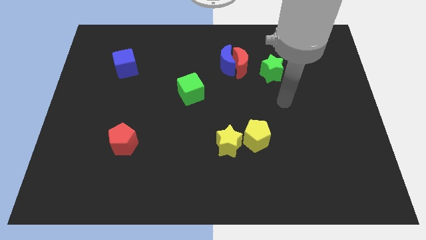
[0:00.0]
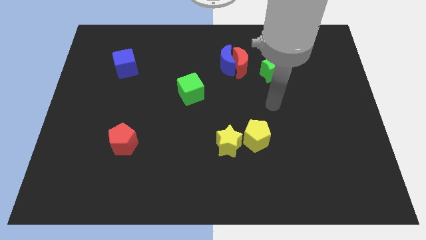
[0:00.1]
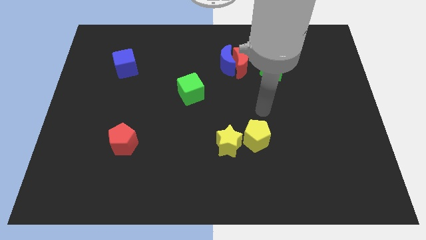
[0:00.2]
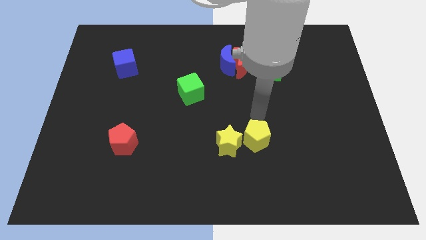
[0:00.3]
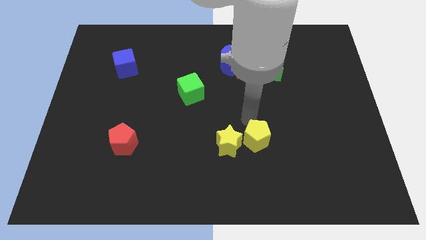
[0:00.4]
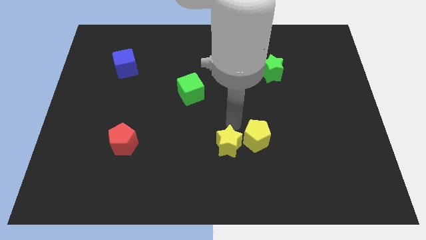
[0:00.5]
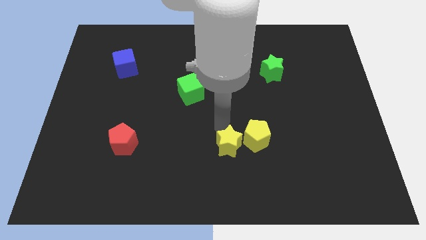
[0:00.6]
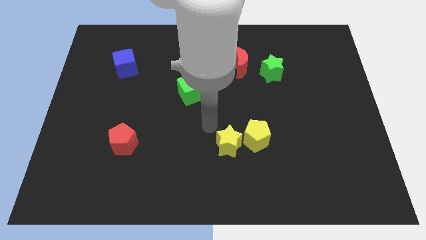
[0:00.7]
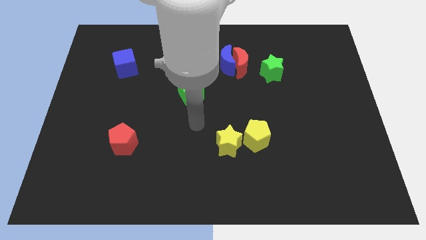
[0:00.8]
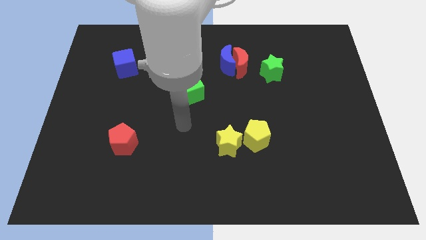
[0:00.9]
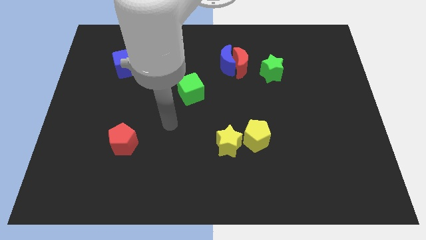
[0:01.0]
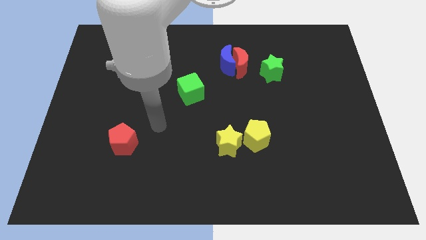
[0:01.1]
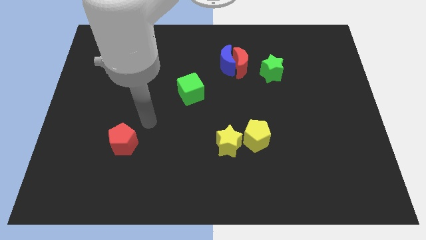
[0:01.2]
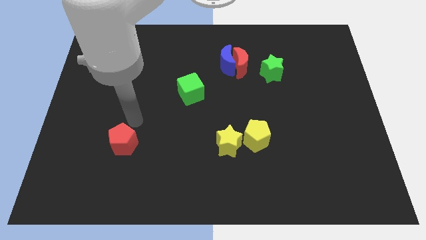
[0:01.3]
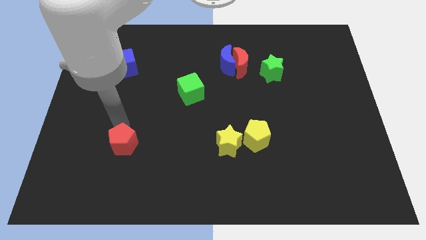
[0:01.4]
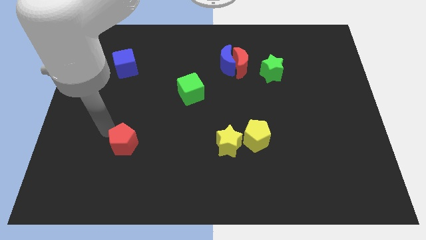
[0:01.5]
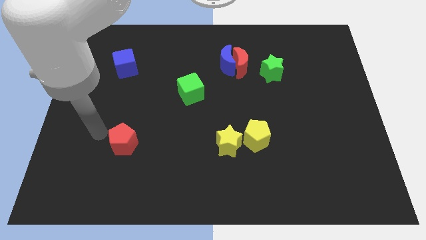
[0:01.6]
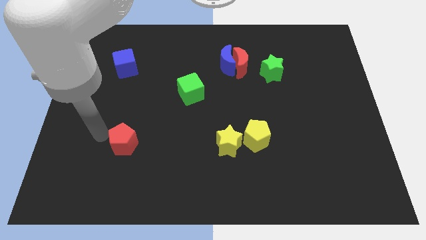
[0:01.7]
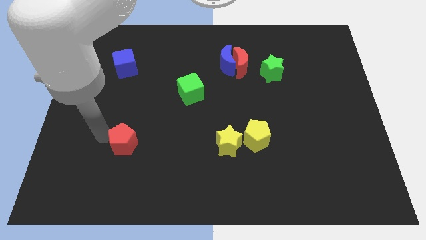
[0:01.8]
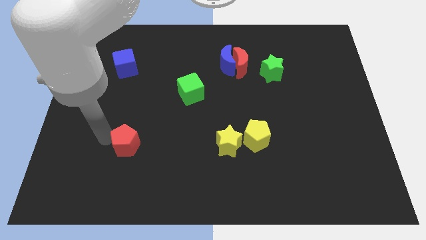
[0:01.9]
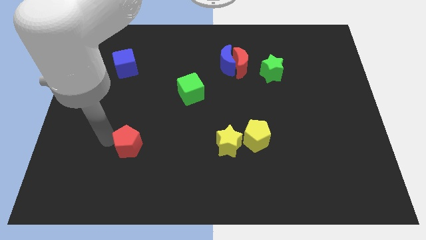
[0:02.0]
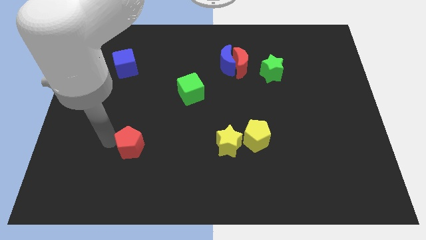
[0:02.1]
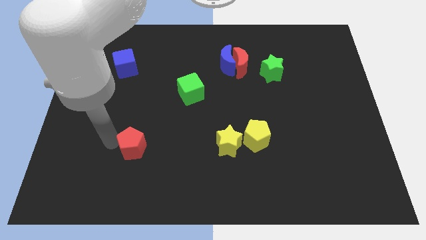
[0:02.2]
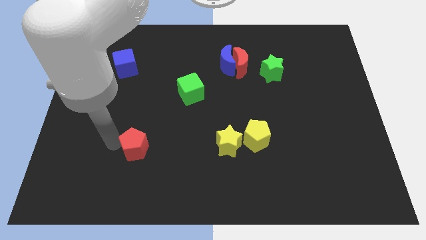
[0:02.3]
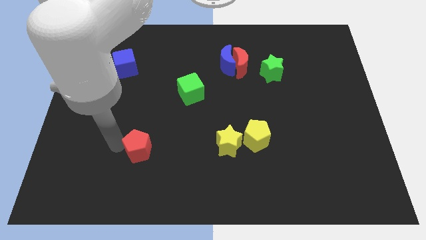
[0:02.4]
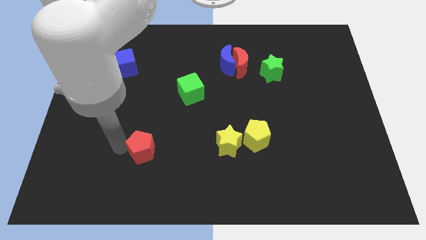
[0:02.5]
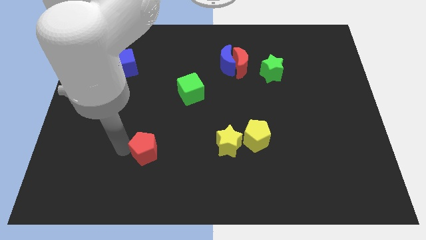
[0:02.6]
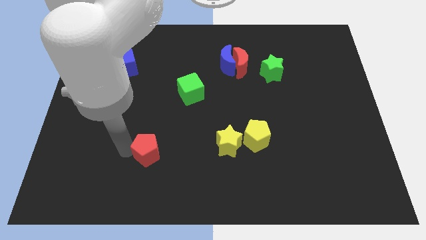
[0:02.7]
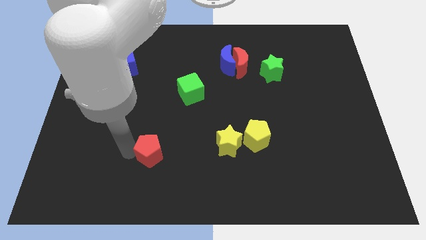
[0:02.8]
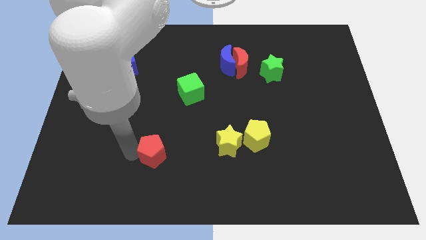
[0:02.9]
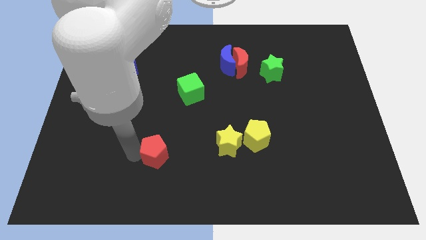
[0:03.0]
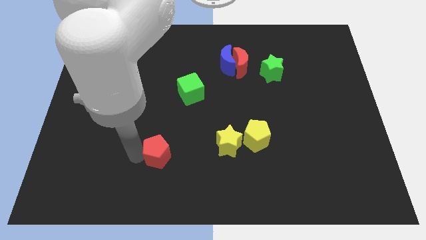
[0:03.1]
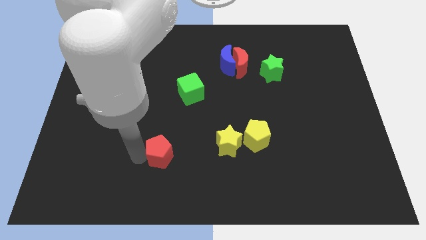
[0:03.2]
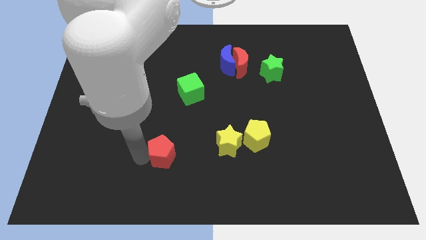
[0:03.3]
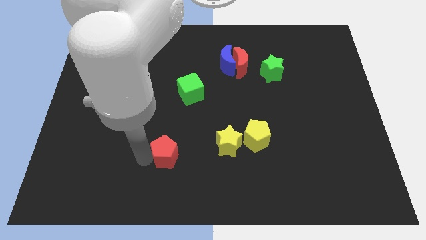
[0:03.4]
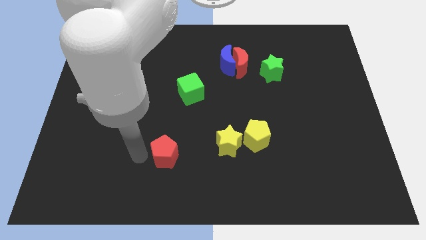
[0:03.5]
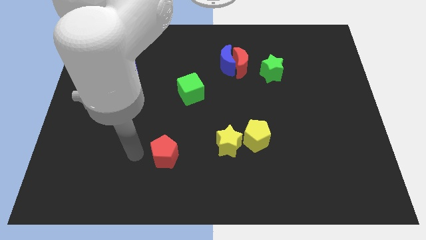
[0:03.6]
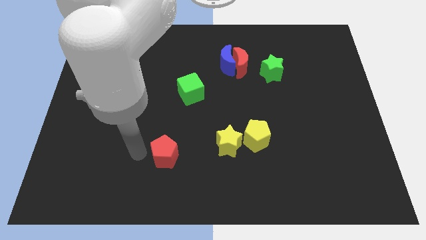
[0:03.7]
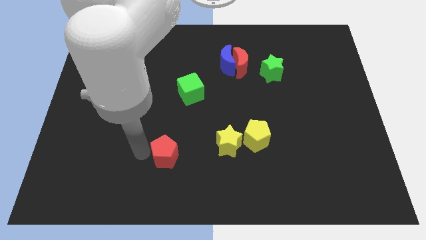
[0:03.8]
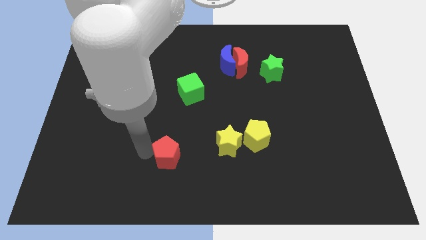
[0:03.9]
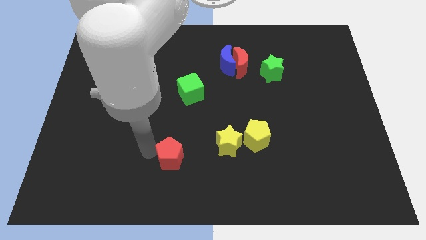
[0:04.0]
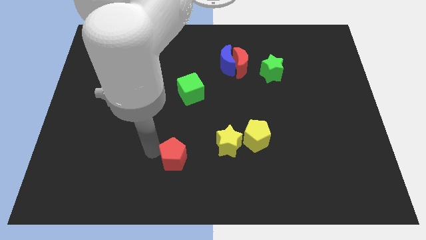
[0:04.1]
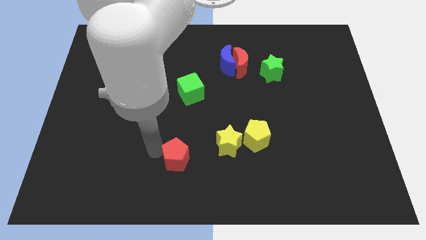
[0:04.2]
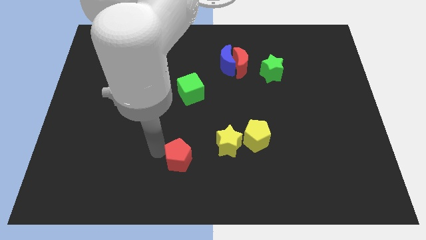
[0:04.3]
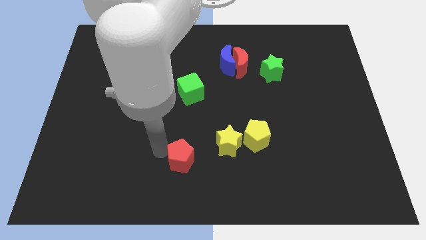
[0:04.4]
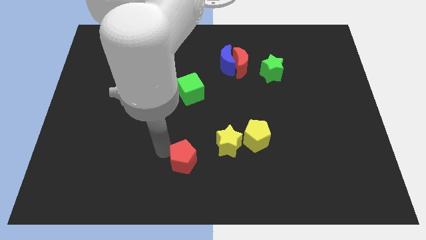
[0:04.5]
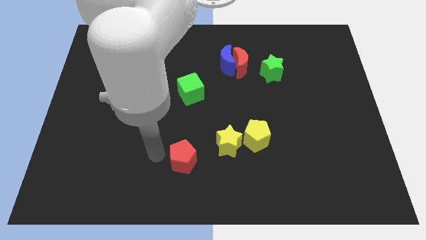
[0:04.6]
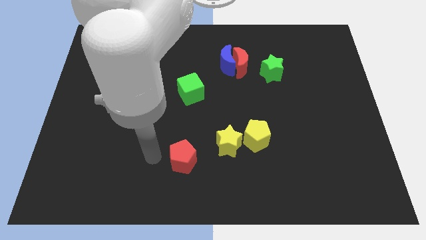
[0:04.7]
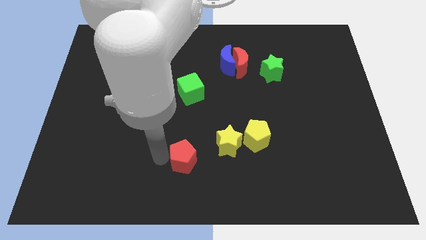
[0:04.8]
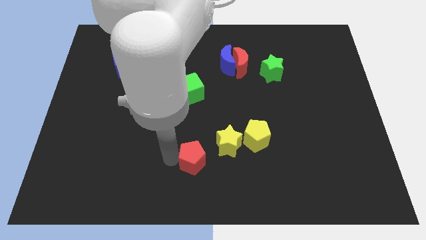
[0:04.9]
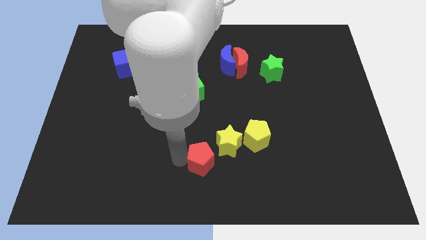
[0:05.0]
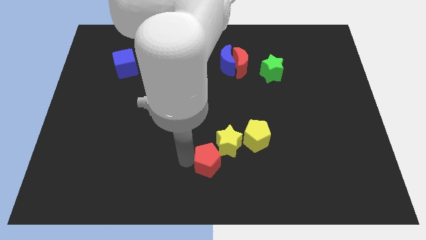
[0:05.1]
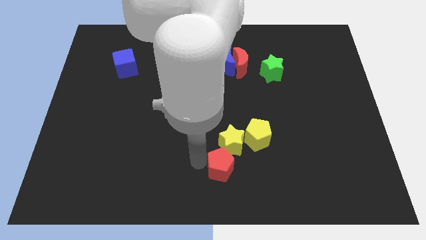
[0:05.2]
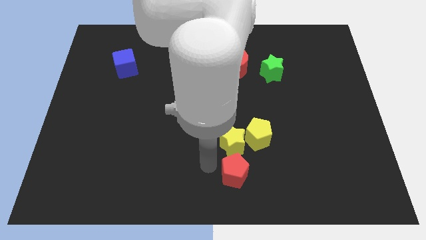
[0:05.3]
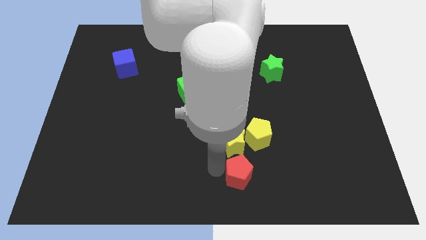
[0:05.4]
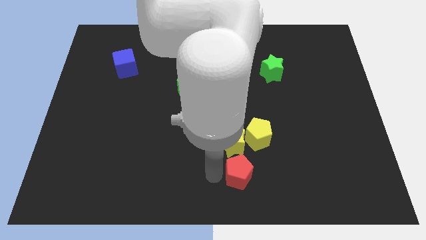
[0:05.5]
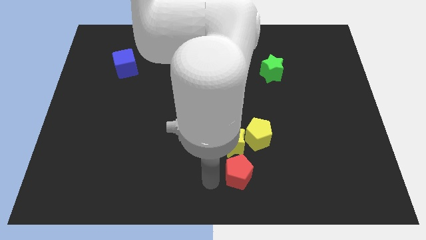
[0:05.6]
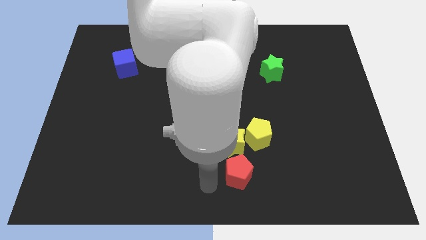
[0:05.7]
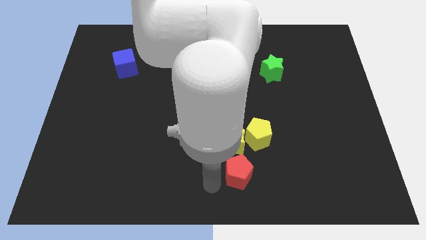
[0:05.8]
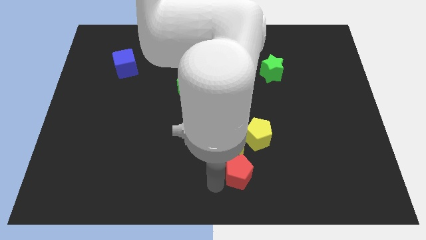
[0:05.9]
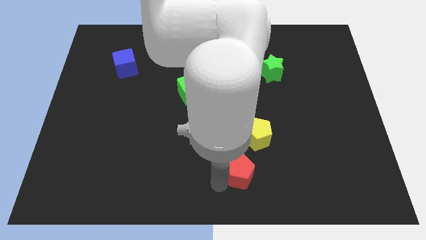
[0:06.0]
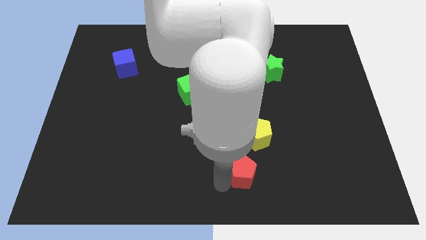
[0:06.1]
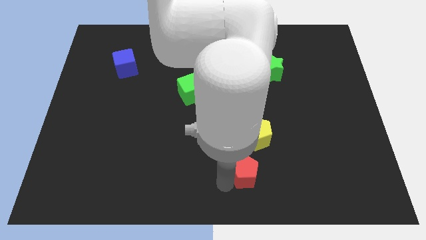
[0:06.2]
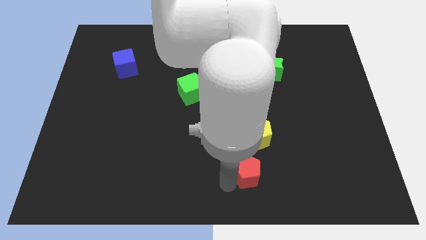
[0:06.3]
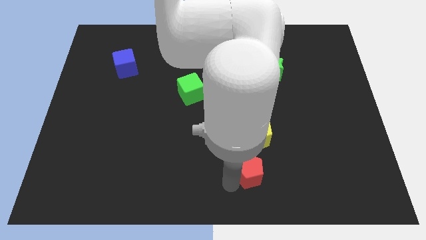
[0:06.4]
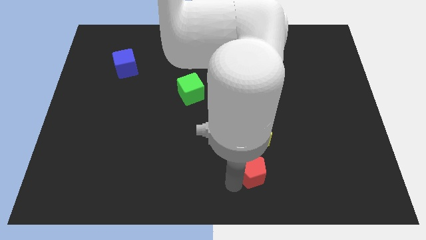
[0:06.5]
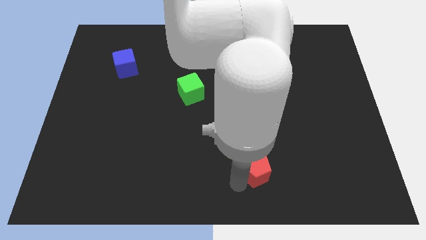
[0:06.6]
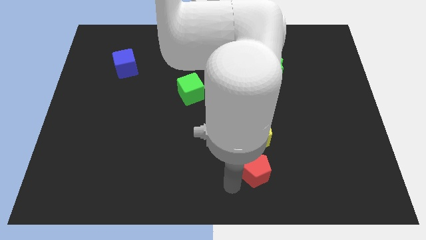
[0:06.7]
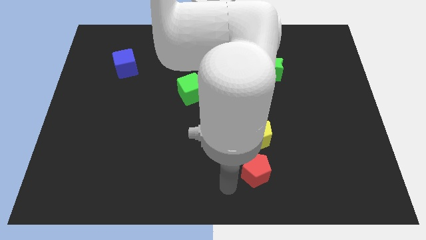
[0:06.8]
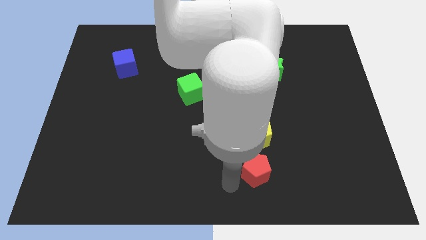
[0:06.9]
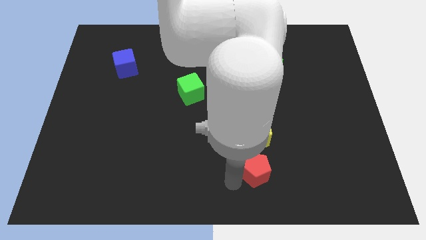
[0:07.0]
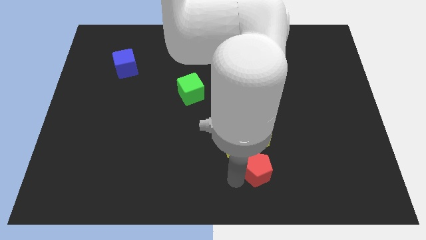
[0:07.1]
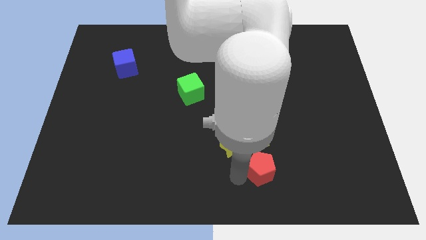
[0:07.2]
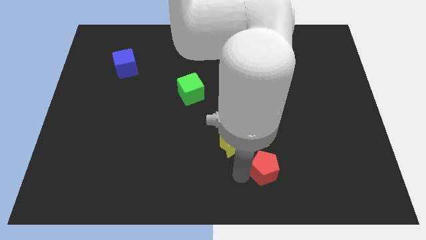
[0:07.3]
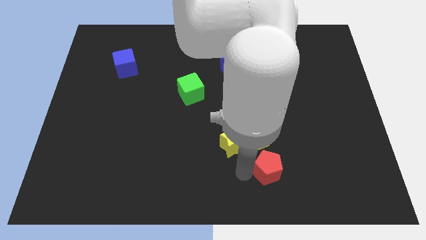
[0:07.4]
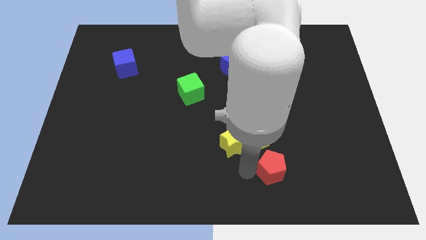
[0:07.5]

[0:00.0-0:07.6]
put the red pentagon diagonally down and to the right of the yellow pentagon
